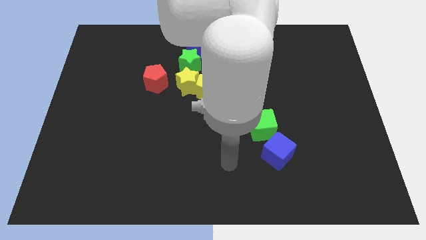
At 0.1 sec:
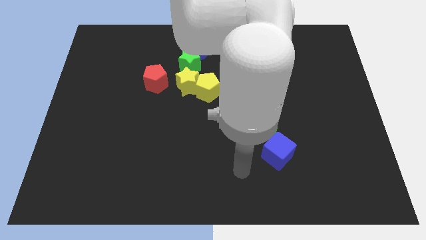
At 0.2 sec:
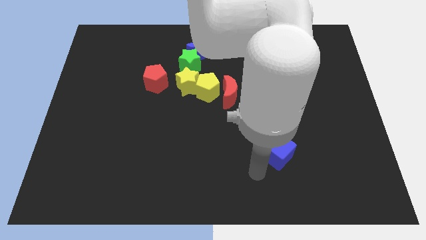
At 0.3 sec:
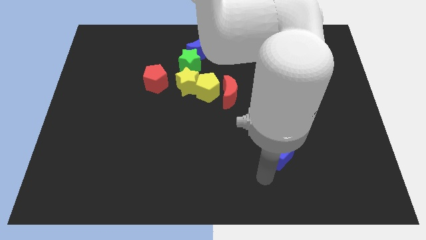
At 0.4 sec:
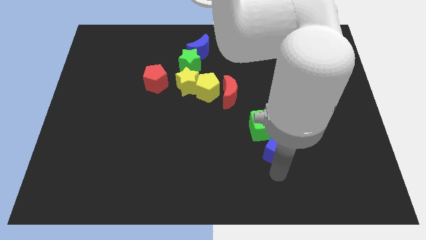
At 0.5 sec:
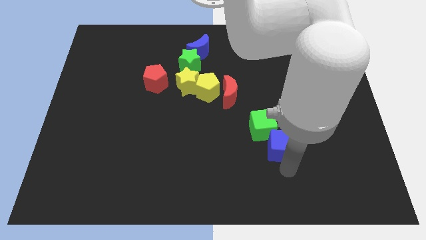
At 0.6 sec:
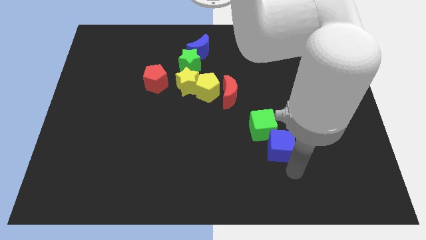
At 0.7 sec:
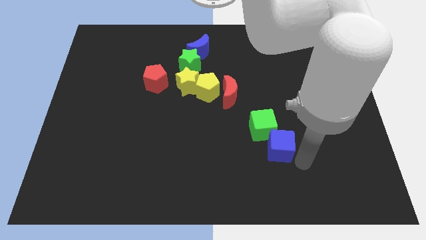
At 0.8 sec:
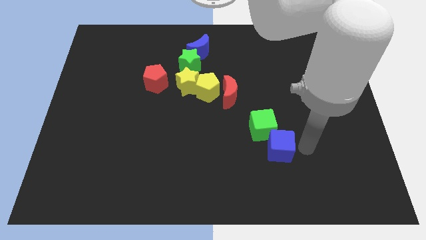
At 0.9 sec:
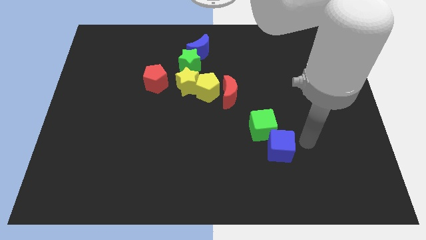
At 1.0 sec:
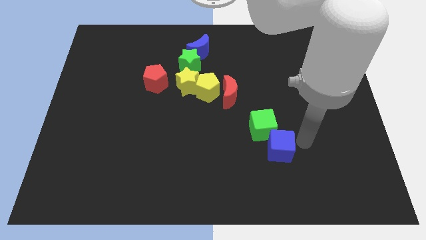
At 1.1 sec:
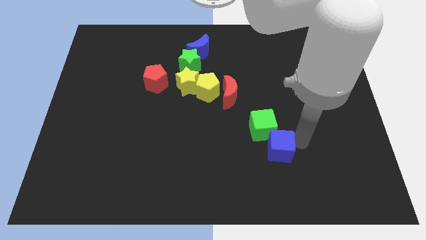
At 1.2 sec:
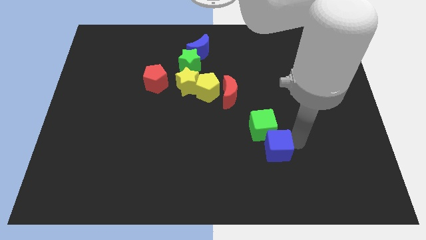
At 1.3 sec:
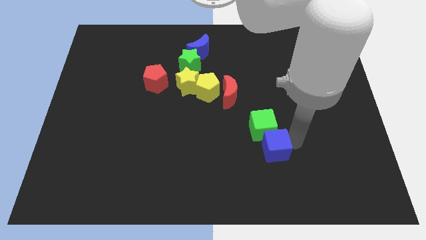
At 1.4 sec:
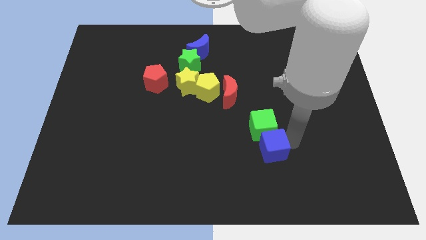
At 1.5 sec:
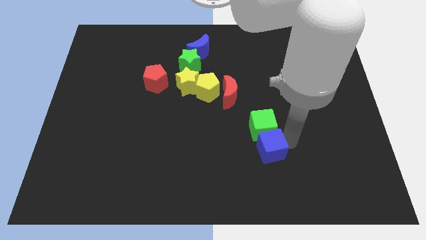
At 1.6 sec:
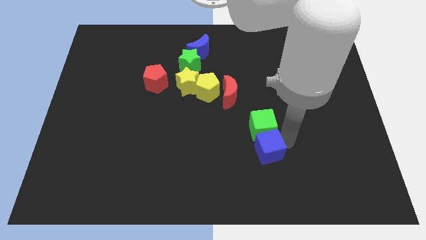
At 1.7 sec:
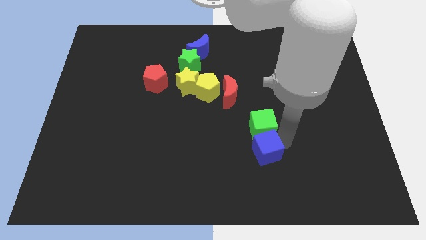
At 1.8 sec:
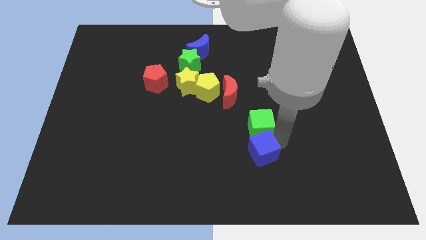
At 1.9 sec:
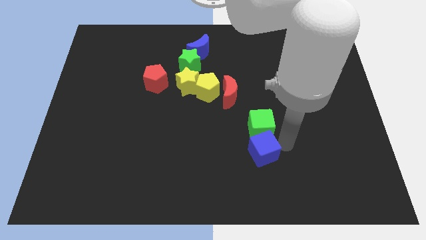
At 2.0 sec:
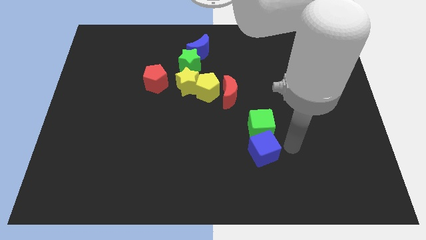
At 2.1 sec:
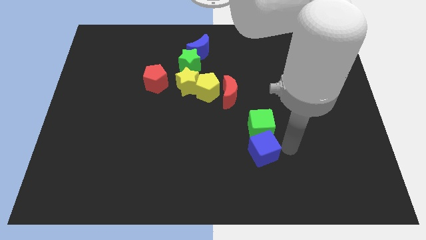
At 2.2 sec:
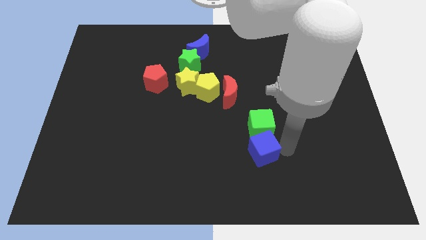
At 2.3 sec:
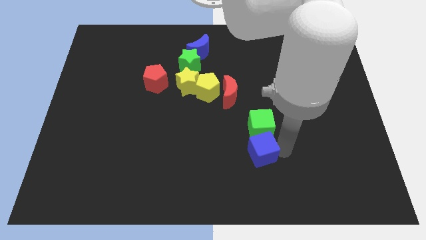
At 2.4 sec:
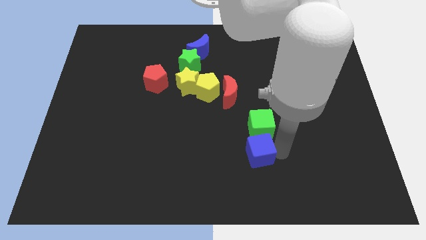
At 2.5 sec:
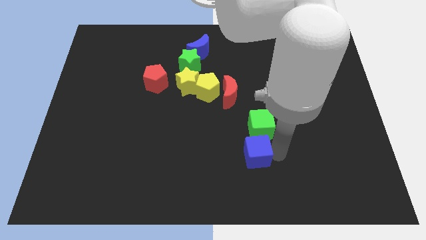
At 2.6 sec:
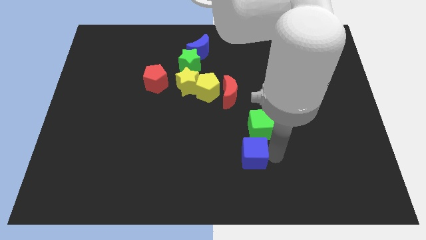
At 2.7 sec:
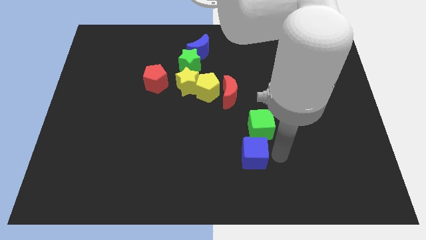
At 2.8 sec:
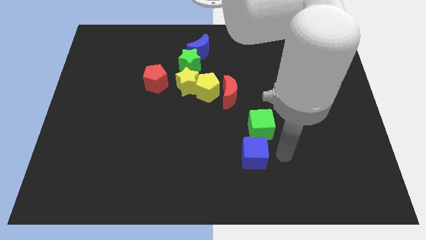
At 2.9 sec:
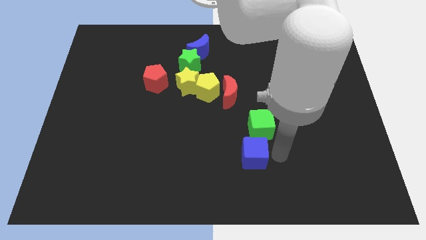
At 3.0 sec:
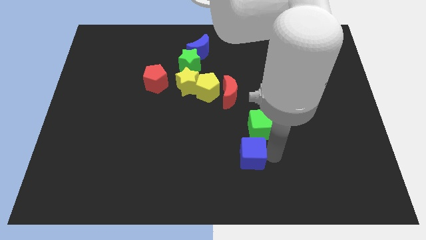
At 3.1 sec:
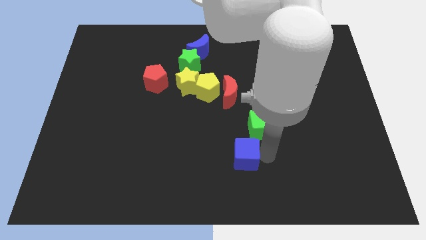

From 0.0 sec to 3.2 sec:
slightly push the blue cube to the left

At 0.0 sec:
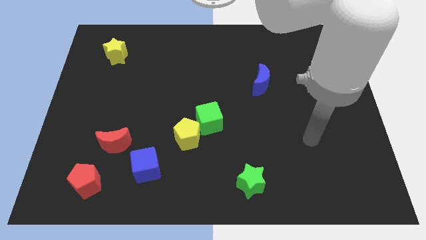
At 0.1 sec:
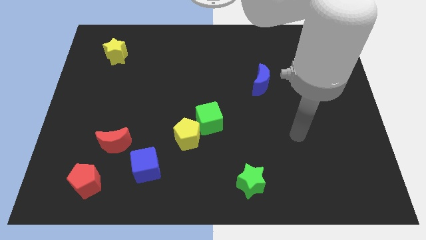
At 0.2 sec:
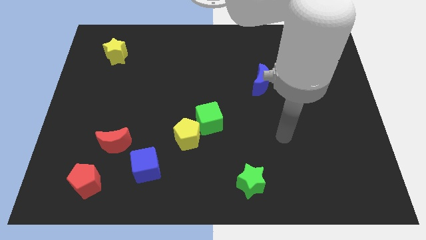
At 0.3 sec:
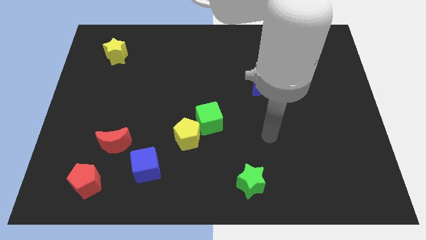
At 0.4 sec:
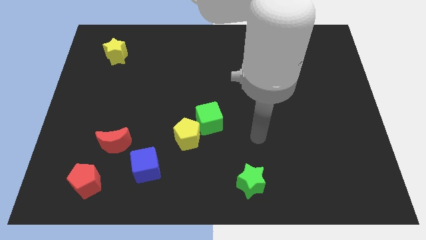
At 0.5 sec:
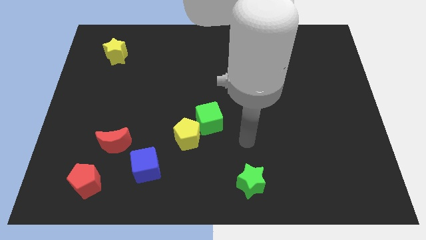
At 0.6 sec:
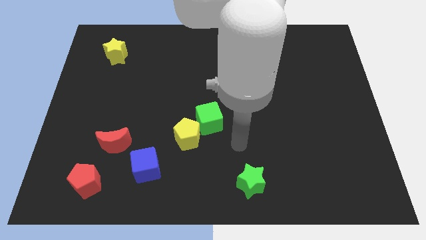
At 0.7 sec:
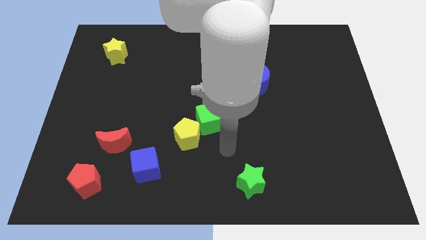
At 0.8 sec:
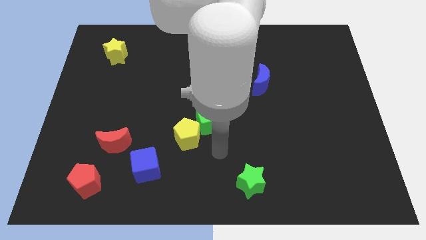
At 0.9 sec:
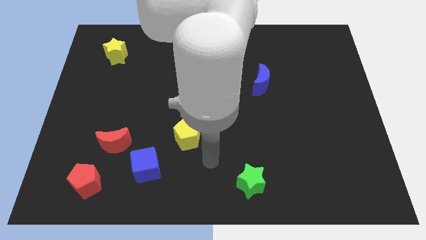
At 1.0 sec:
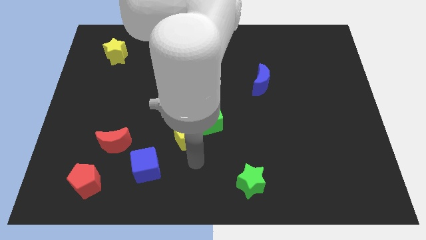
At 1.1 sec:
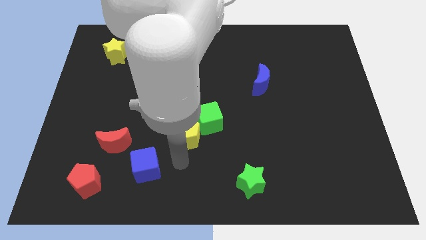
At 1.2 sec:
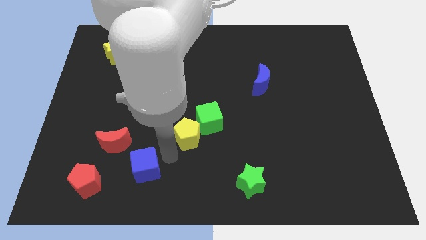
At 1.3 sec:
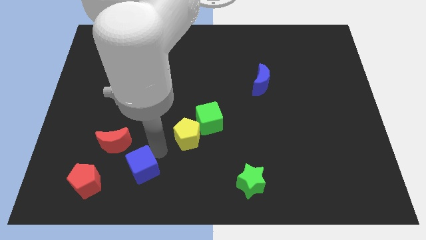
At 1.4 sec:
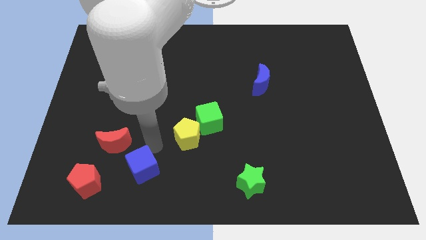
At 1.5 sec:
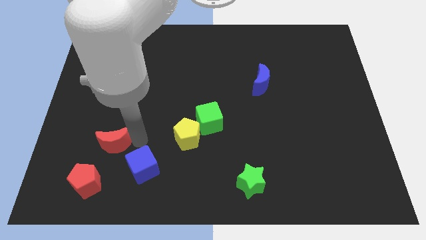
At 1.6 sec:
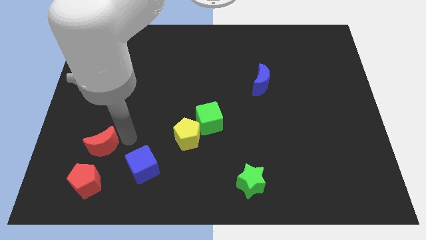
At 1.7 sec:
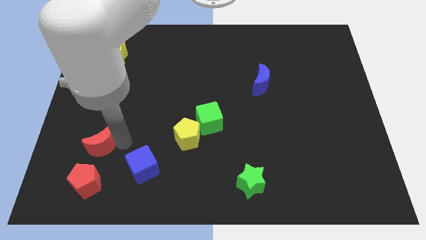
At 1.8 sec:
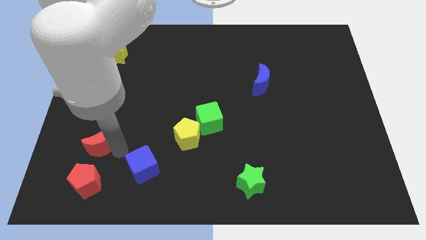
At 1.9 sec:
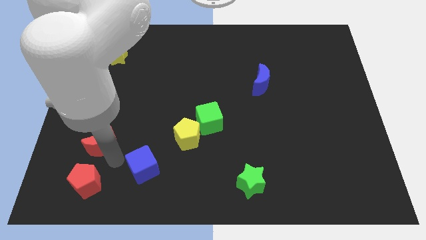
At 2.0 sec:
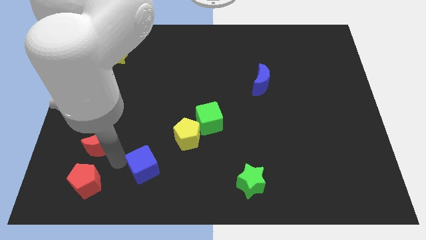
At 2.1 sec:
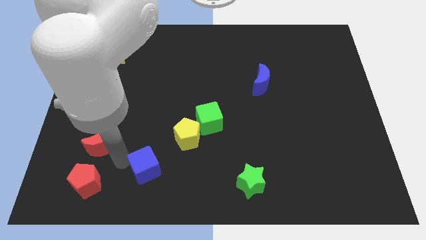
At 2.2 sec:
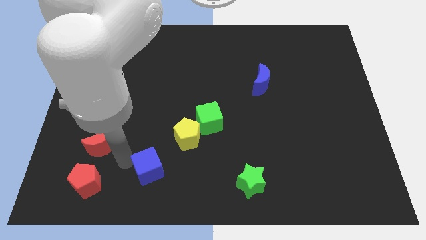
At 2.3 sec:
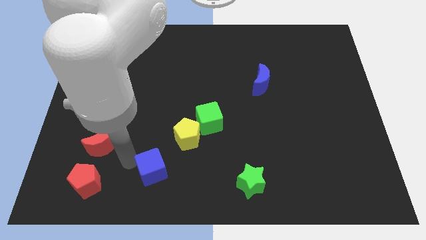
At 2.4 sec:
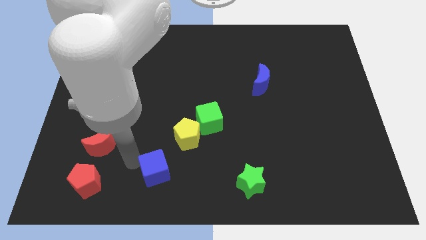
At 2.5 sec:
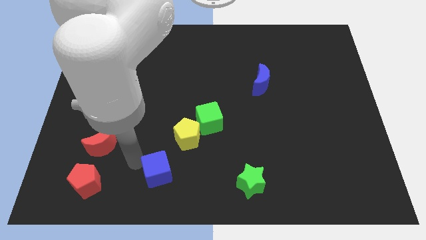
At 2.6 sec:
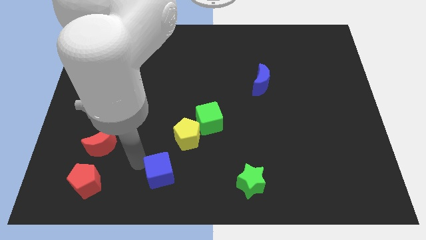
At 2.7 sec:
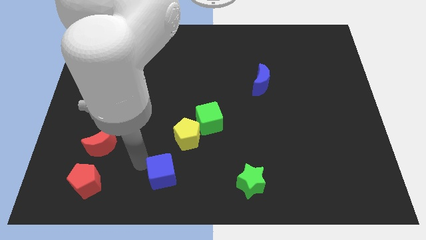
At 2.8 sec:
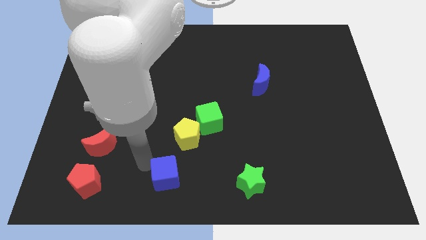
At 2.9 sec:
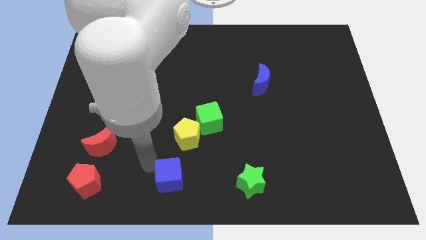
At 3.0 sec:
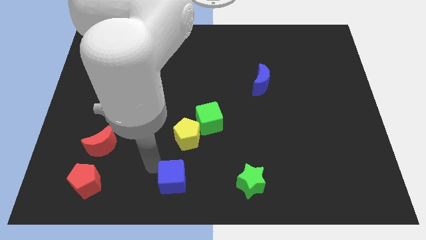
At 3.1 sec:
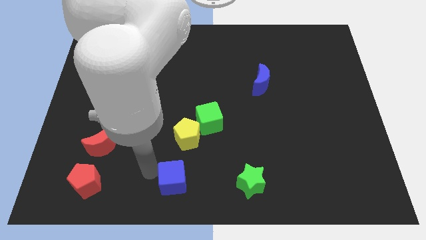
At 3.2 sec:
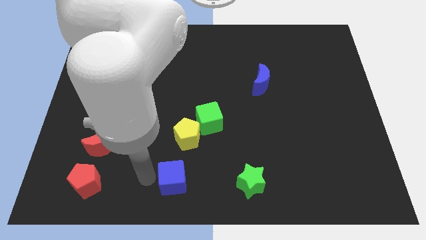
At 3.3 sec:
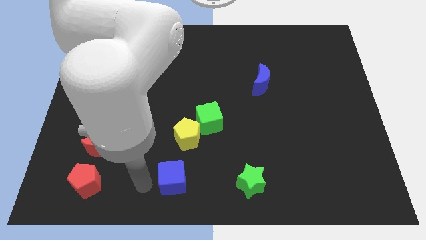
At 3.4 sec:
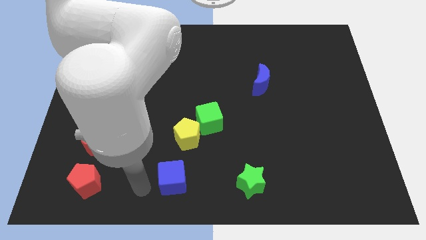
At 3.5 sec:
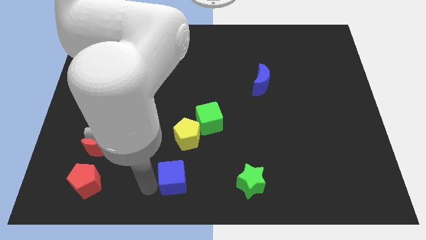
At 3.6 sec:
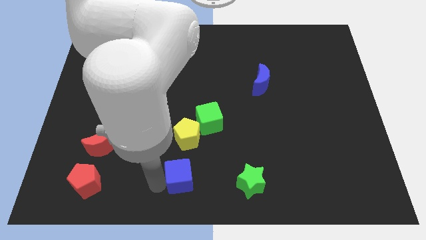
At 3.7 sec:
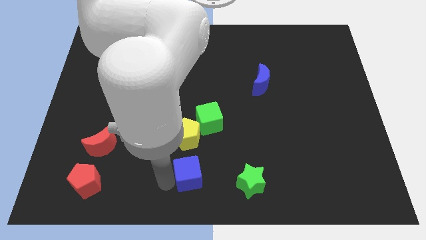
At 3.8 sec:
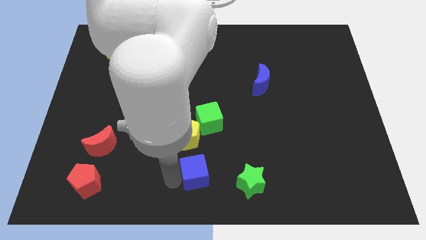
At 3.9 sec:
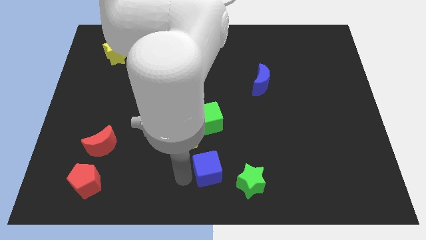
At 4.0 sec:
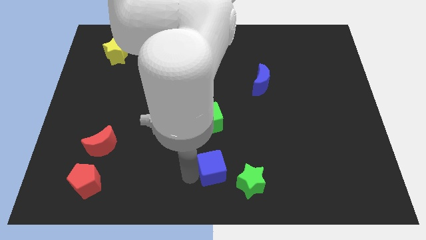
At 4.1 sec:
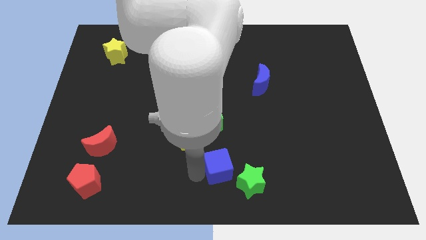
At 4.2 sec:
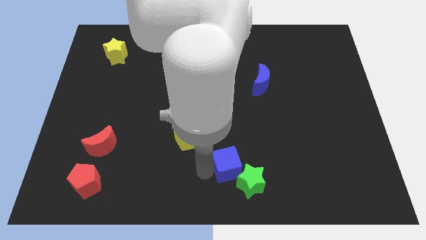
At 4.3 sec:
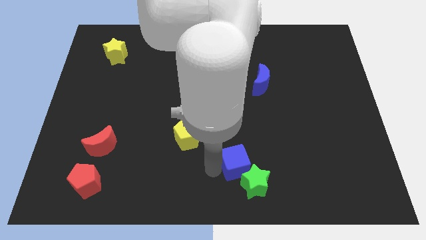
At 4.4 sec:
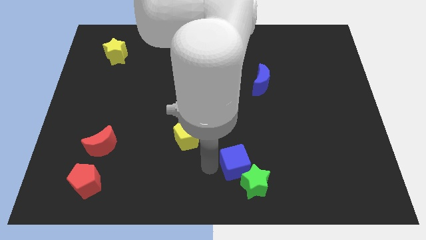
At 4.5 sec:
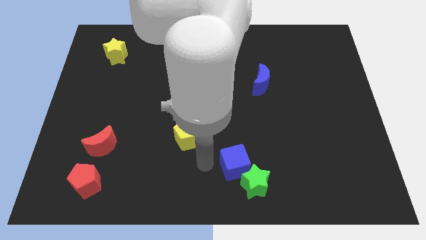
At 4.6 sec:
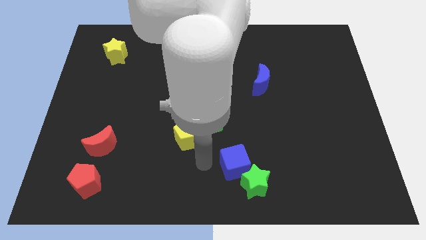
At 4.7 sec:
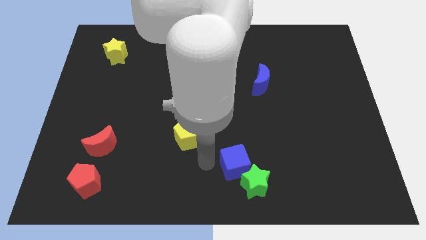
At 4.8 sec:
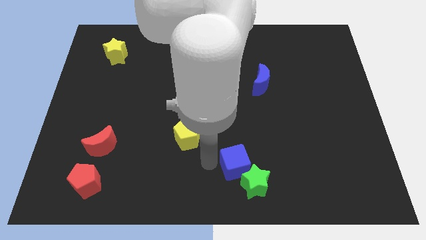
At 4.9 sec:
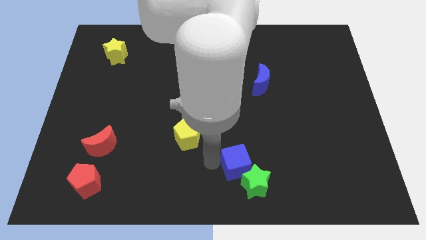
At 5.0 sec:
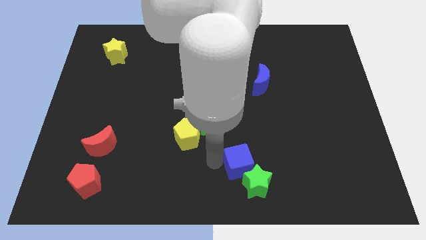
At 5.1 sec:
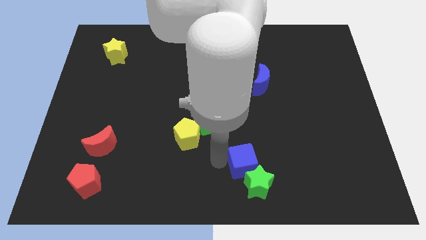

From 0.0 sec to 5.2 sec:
move the blue cube right
